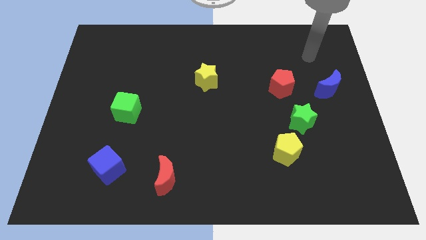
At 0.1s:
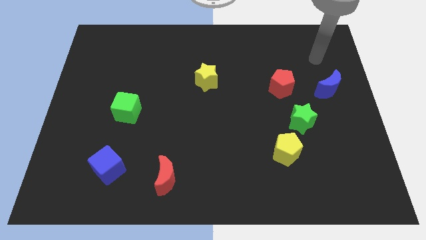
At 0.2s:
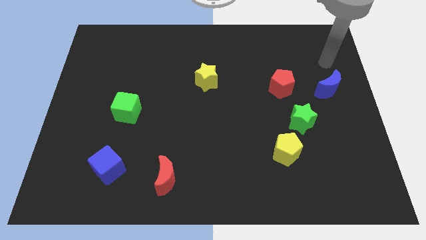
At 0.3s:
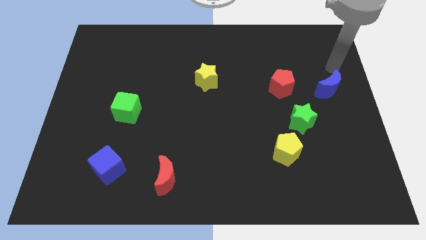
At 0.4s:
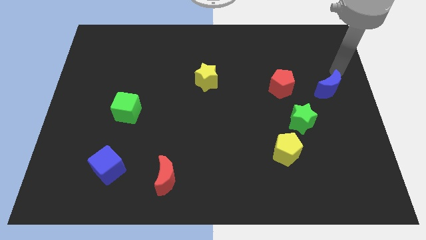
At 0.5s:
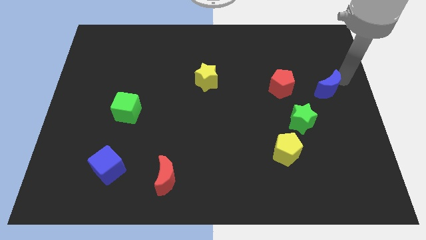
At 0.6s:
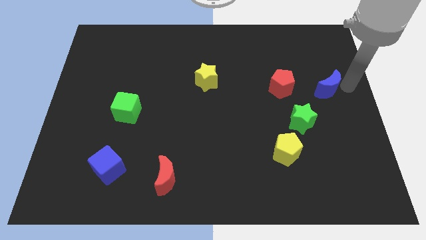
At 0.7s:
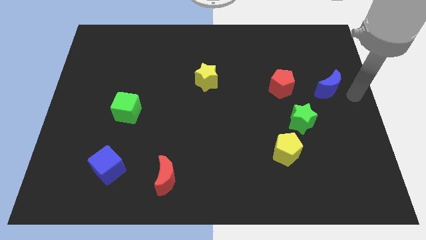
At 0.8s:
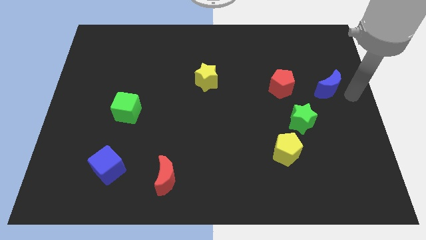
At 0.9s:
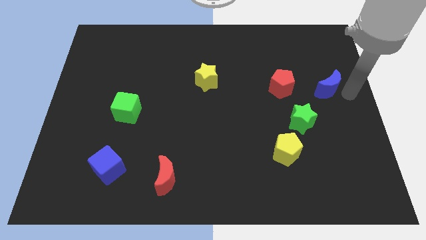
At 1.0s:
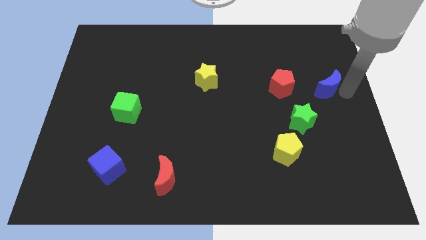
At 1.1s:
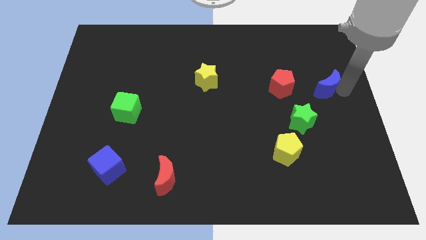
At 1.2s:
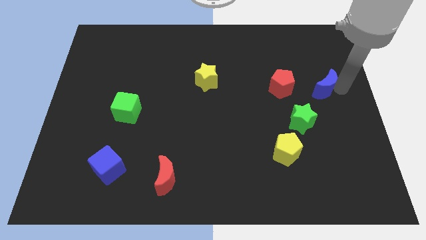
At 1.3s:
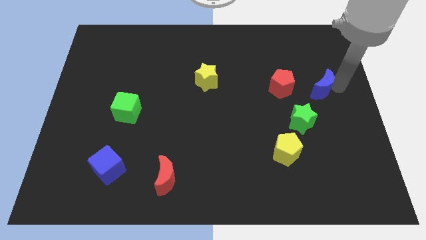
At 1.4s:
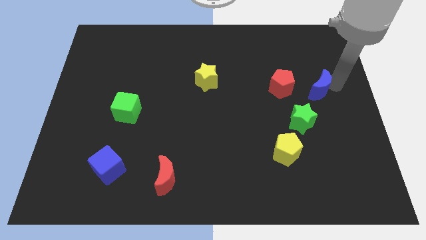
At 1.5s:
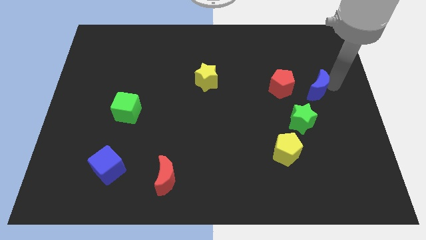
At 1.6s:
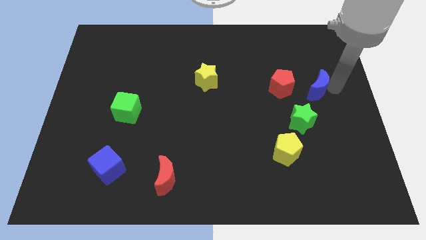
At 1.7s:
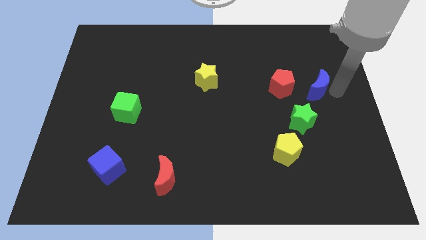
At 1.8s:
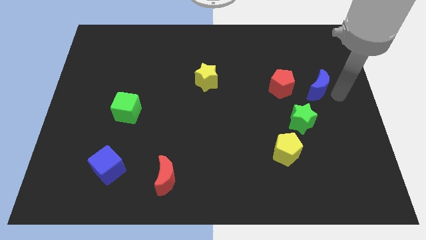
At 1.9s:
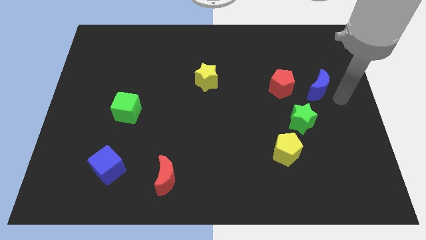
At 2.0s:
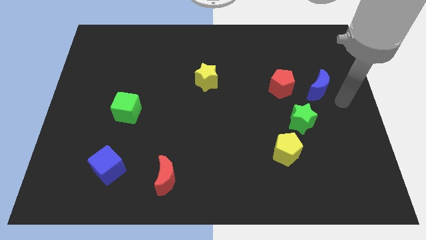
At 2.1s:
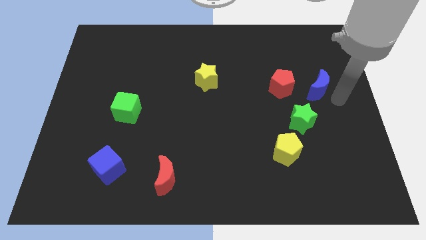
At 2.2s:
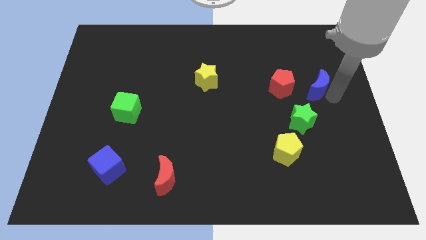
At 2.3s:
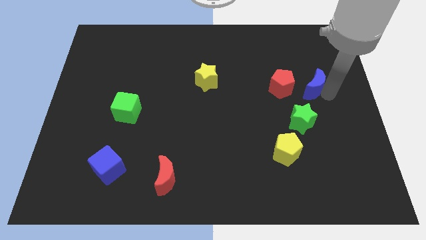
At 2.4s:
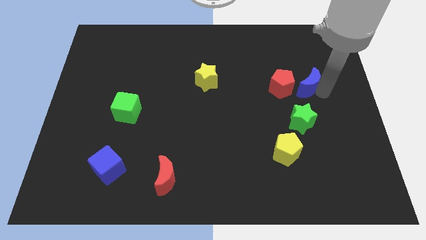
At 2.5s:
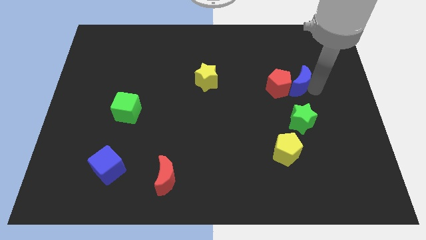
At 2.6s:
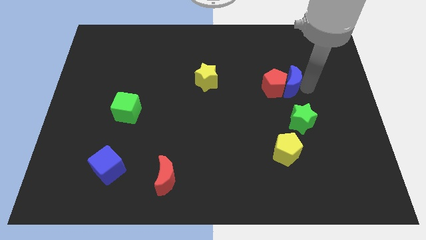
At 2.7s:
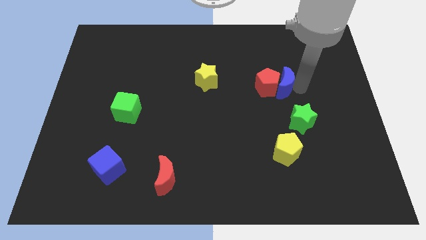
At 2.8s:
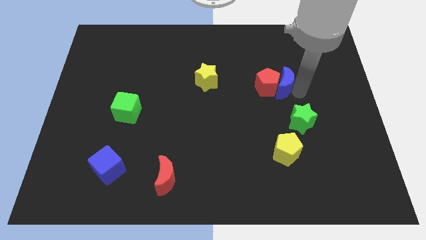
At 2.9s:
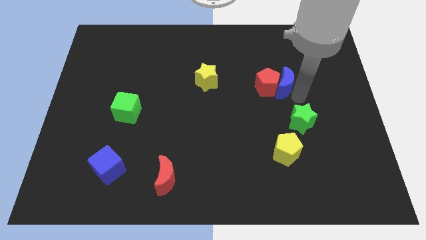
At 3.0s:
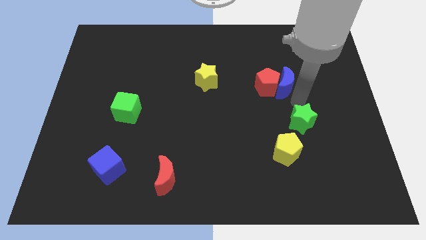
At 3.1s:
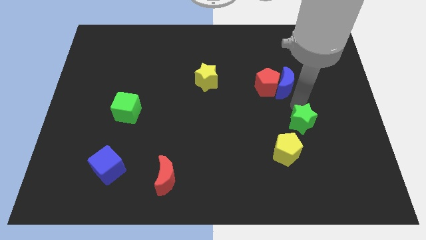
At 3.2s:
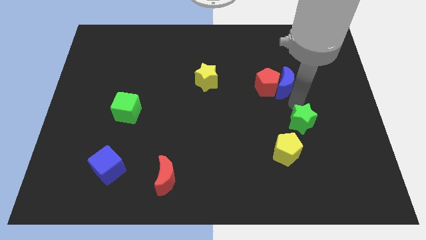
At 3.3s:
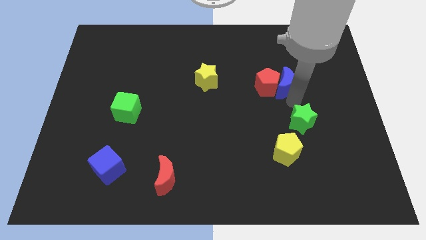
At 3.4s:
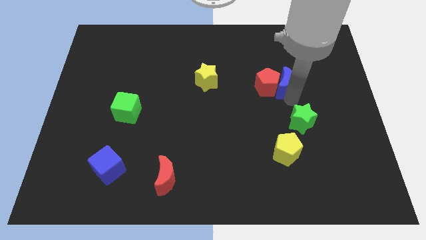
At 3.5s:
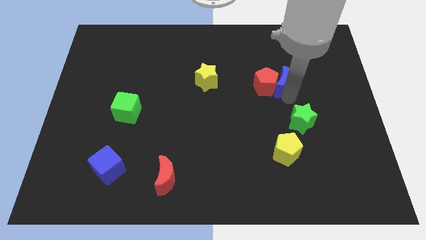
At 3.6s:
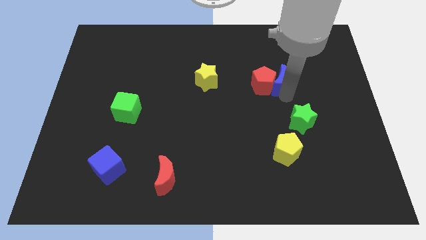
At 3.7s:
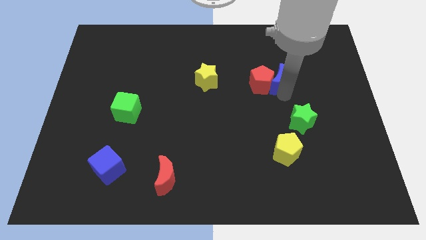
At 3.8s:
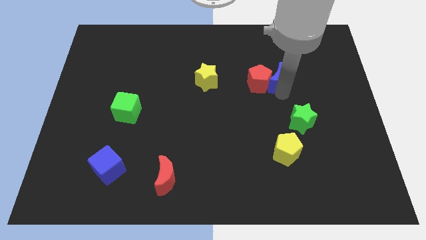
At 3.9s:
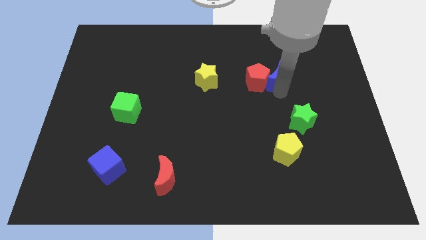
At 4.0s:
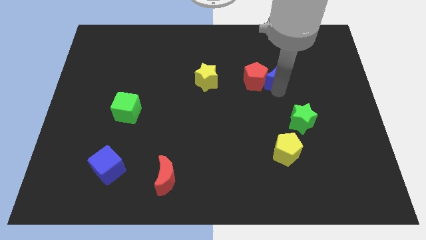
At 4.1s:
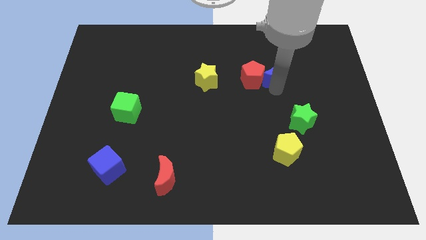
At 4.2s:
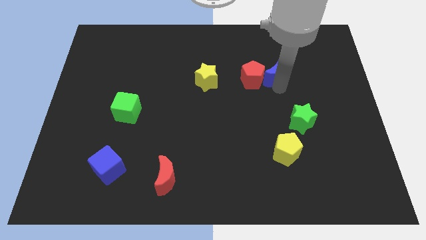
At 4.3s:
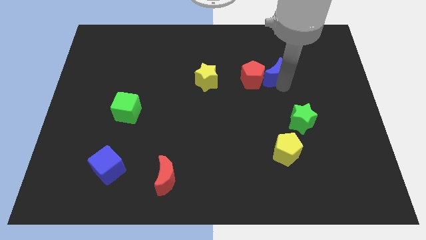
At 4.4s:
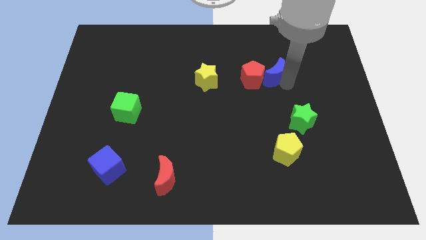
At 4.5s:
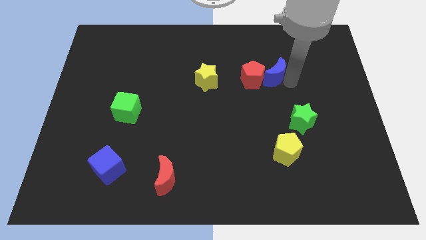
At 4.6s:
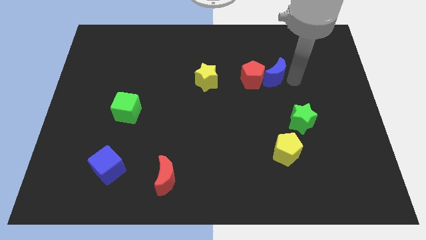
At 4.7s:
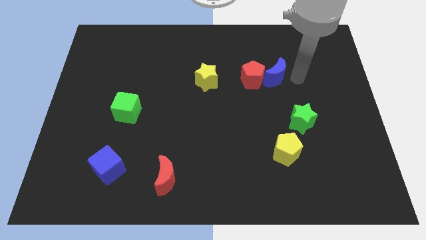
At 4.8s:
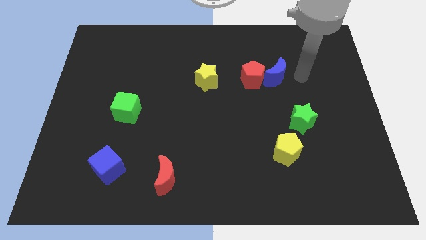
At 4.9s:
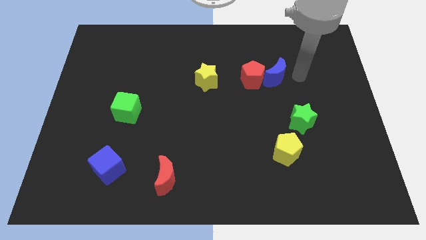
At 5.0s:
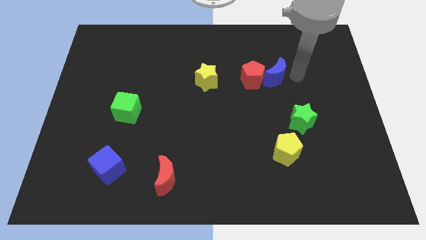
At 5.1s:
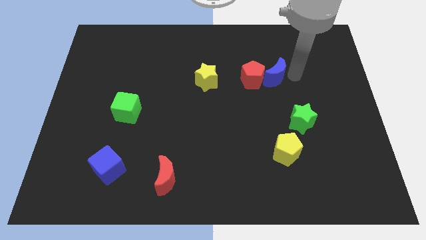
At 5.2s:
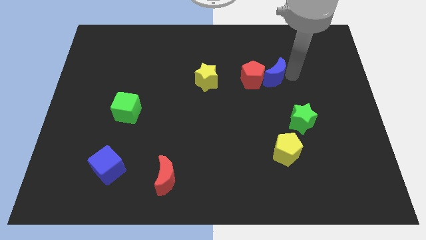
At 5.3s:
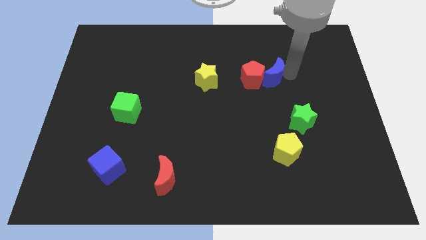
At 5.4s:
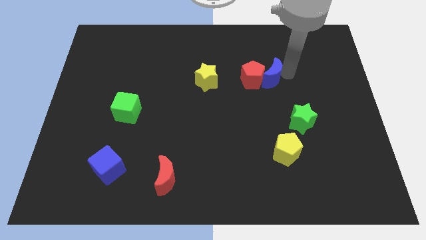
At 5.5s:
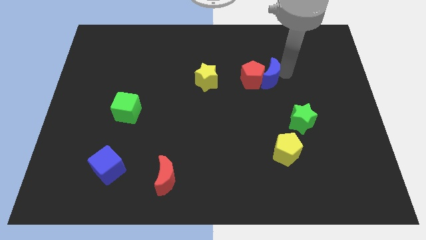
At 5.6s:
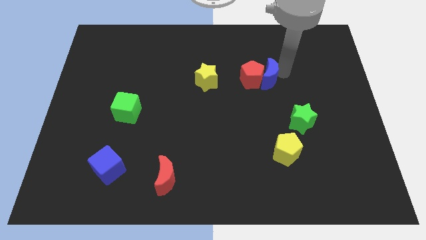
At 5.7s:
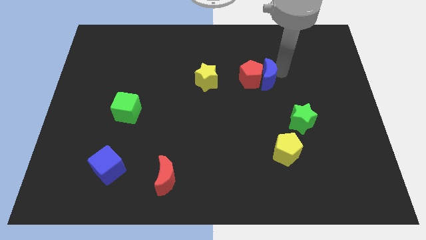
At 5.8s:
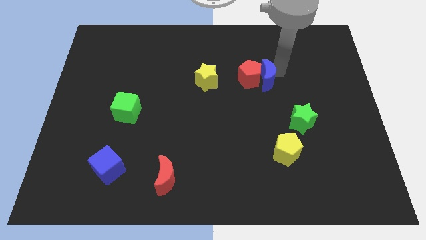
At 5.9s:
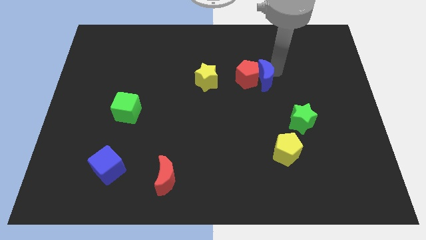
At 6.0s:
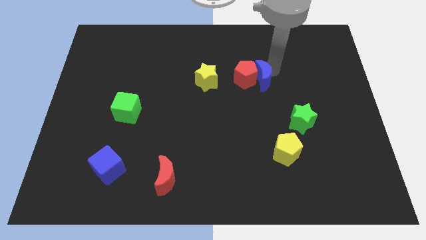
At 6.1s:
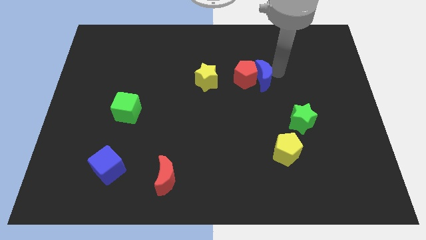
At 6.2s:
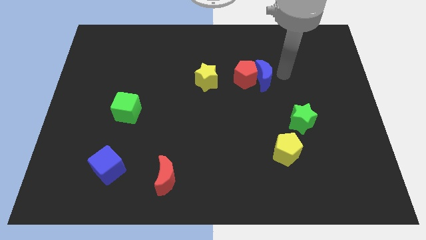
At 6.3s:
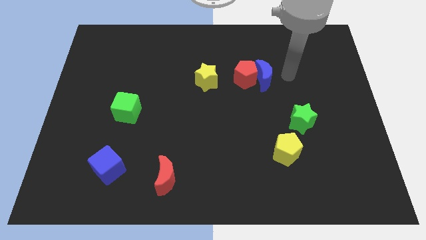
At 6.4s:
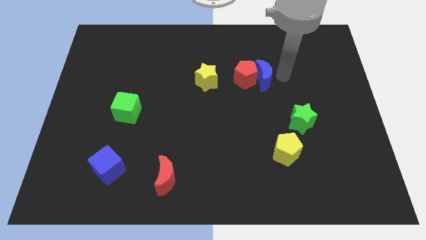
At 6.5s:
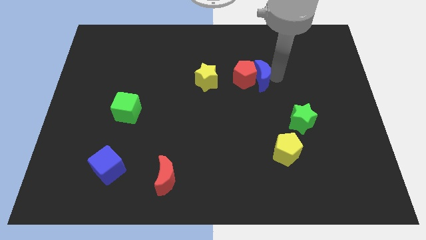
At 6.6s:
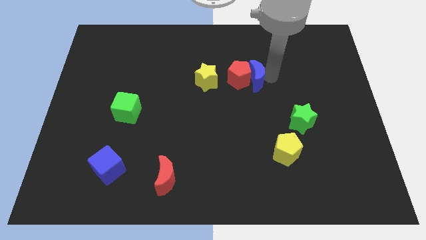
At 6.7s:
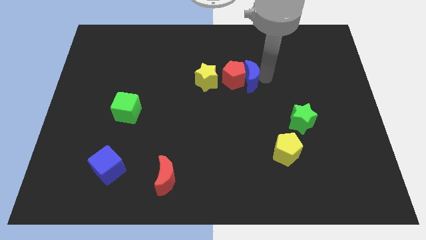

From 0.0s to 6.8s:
push the blue moon to the center
